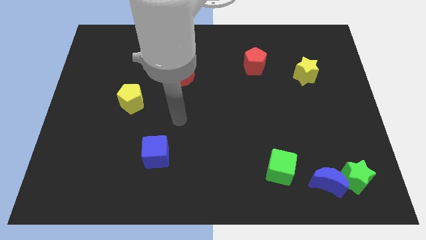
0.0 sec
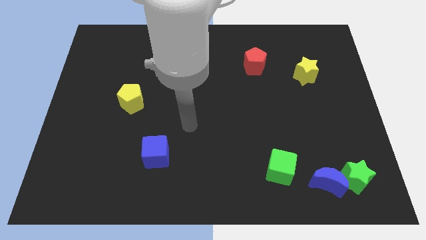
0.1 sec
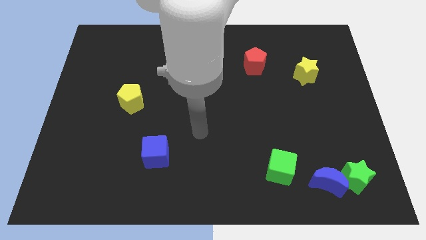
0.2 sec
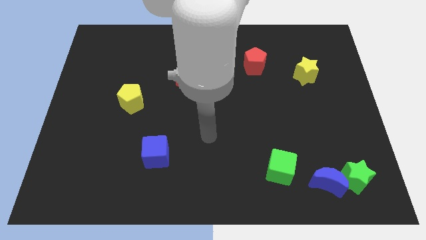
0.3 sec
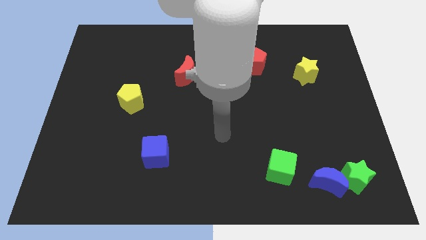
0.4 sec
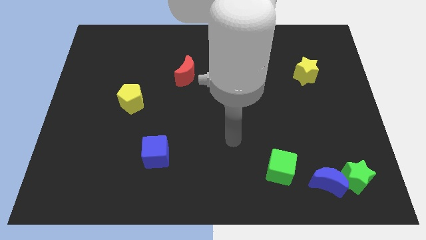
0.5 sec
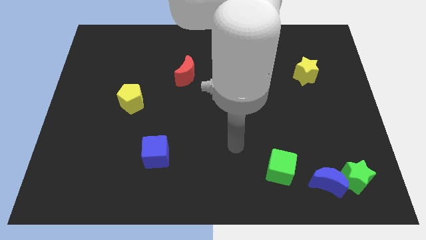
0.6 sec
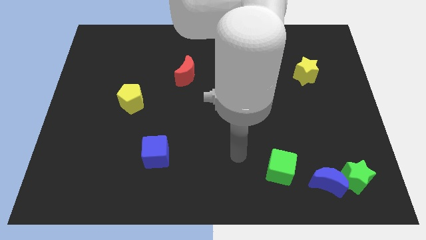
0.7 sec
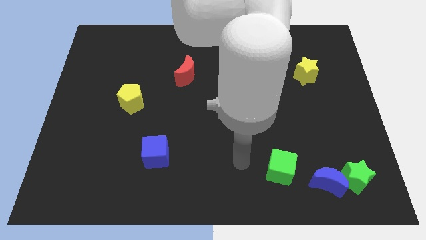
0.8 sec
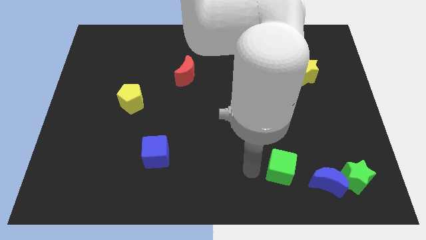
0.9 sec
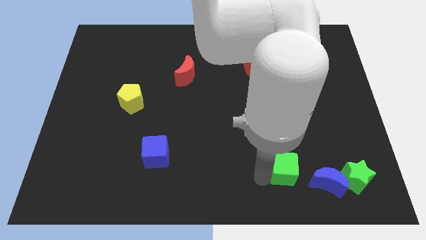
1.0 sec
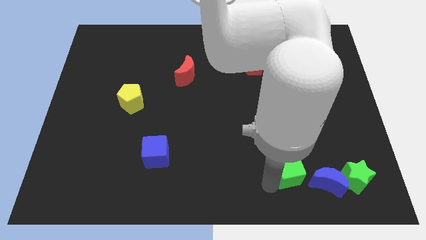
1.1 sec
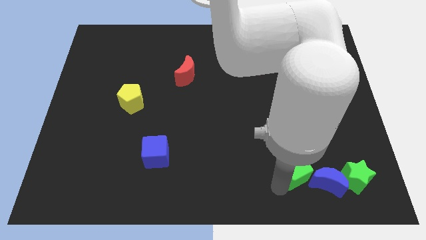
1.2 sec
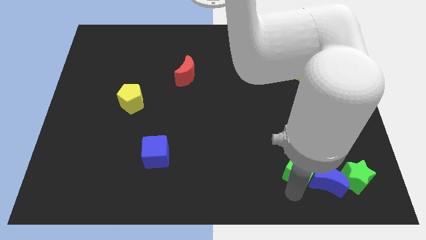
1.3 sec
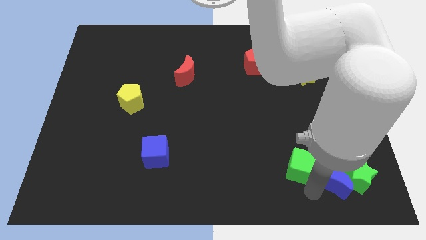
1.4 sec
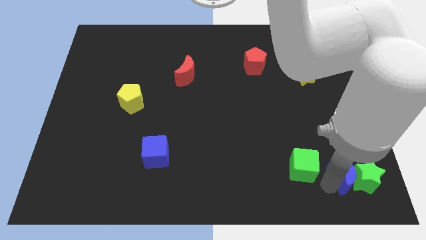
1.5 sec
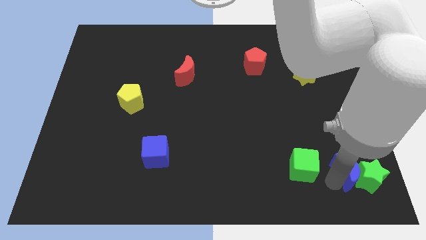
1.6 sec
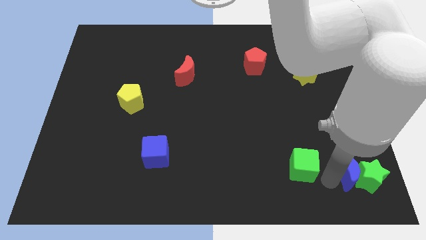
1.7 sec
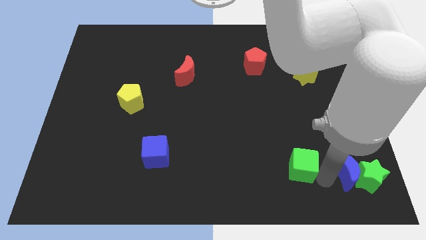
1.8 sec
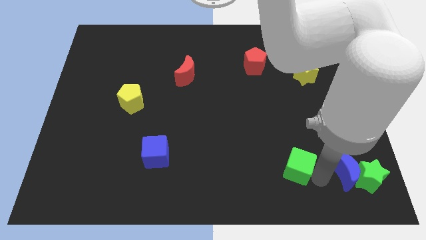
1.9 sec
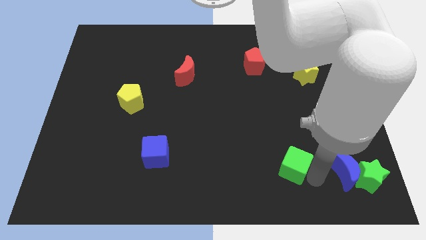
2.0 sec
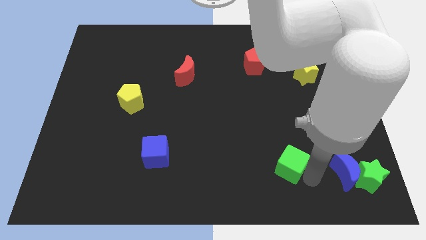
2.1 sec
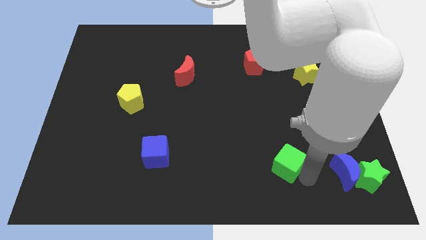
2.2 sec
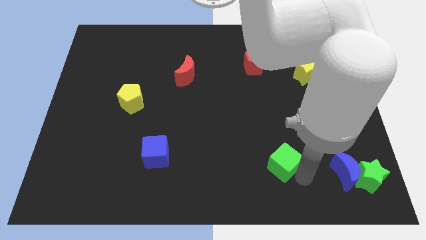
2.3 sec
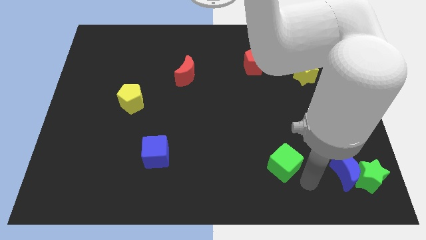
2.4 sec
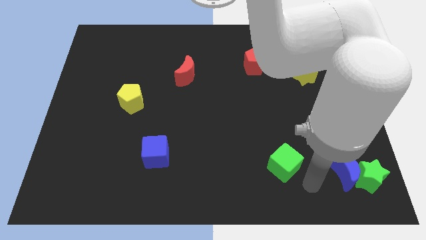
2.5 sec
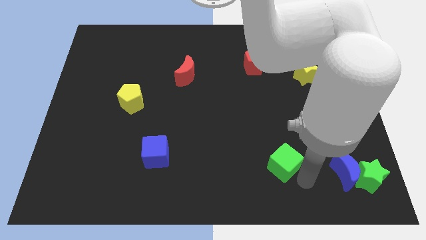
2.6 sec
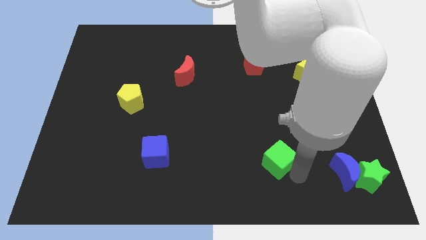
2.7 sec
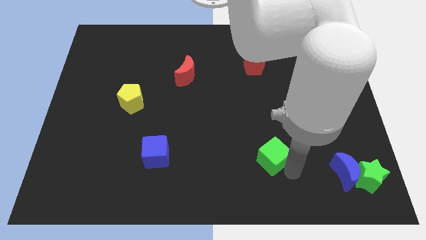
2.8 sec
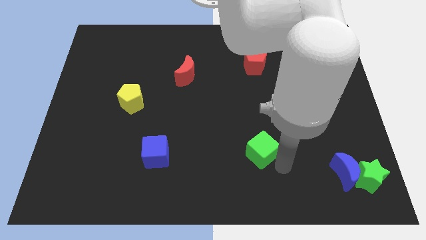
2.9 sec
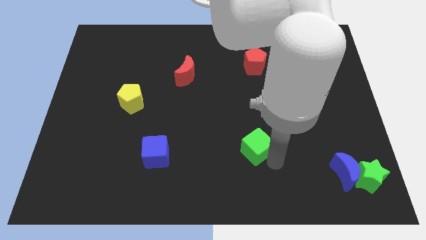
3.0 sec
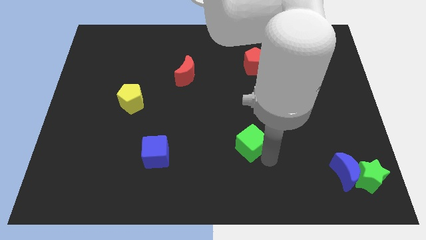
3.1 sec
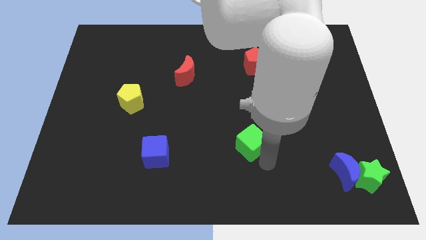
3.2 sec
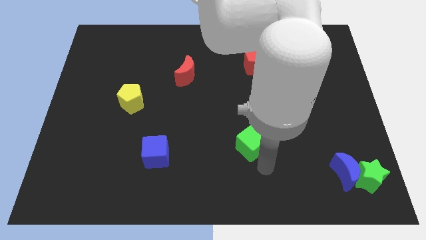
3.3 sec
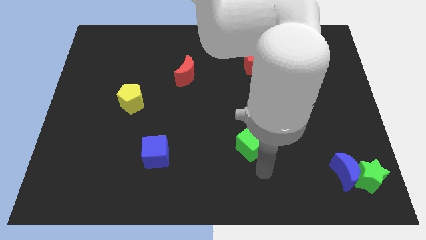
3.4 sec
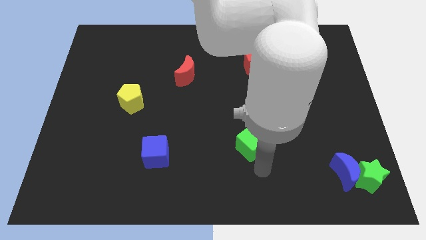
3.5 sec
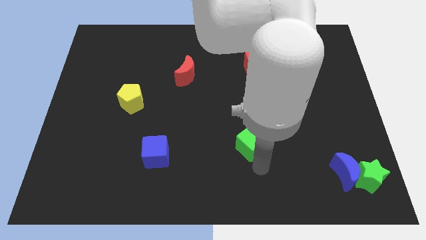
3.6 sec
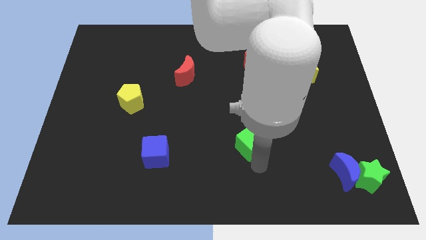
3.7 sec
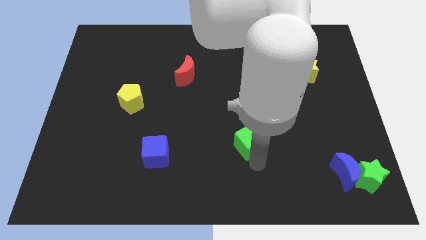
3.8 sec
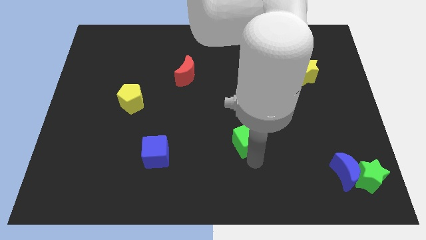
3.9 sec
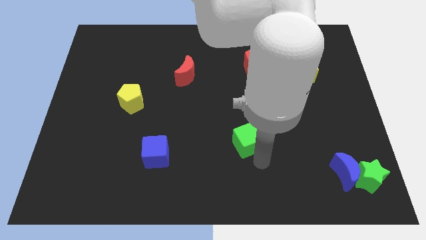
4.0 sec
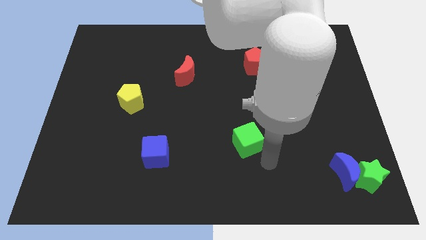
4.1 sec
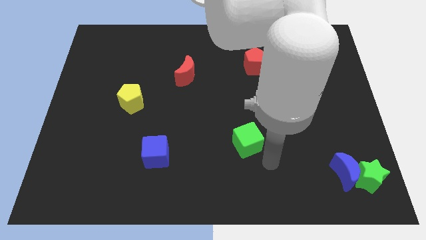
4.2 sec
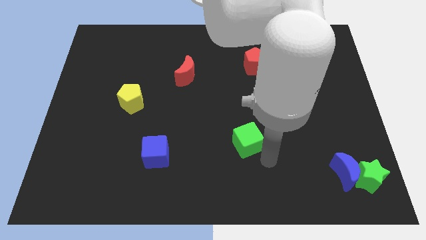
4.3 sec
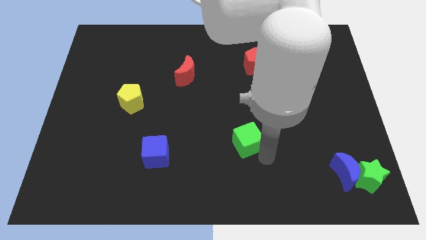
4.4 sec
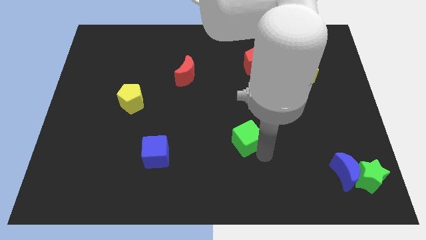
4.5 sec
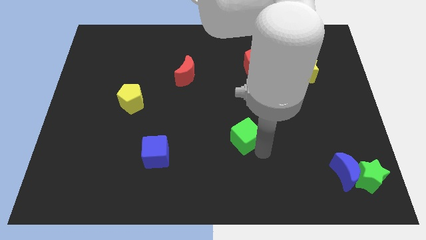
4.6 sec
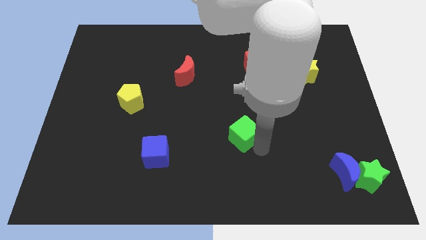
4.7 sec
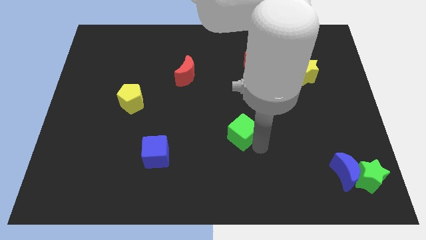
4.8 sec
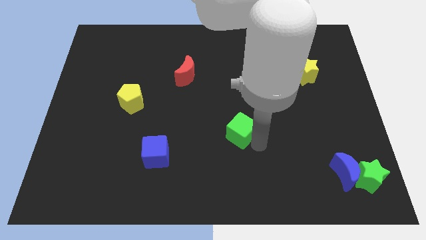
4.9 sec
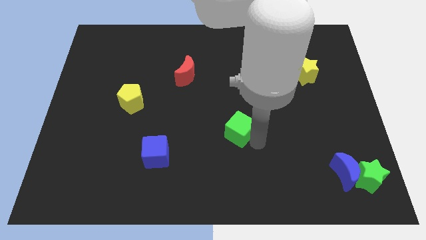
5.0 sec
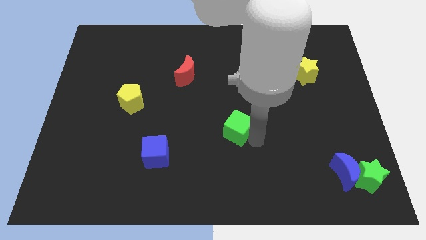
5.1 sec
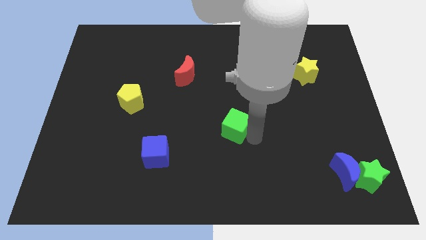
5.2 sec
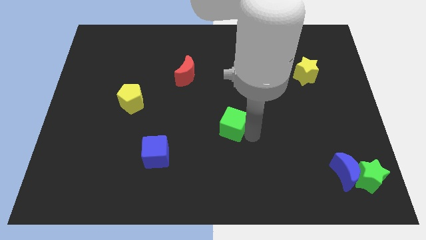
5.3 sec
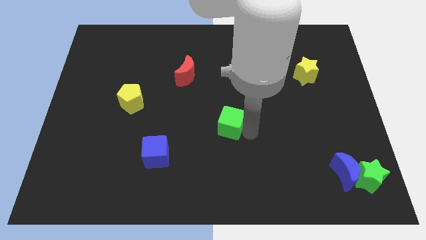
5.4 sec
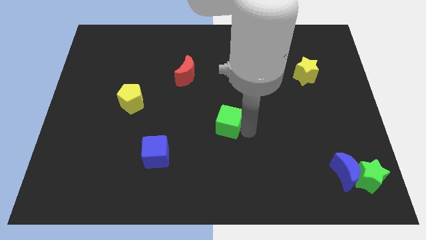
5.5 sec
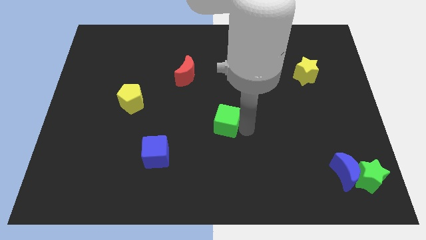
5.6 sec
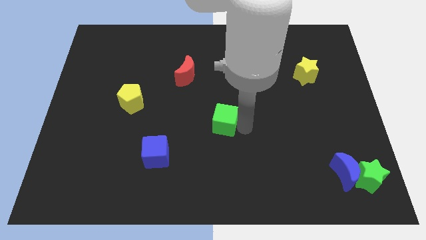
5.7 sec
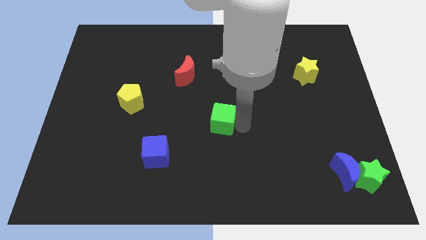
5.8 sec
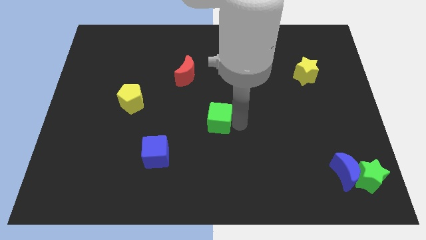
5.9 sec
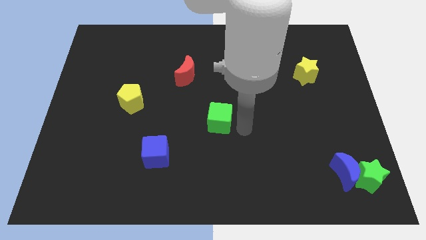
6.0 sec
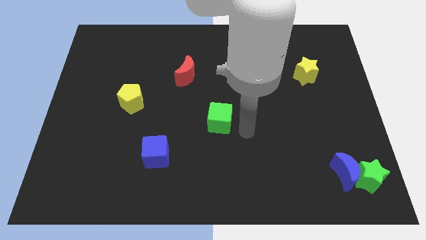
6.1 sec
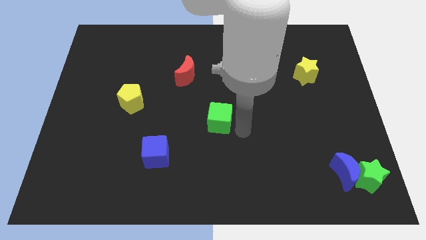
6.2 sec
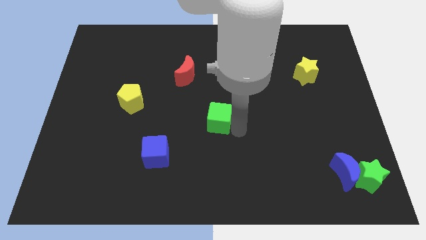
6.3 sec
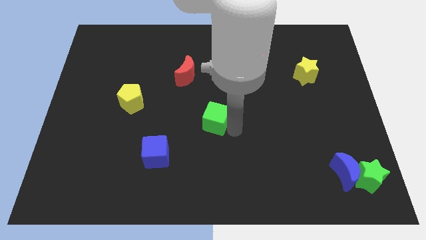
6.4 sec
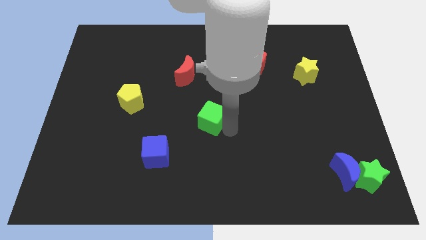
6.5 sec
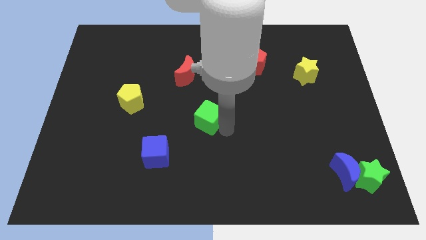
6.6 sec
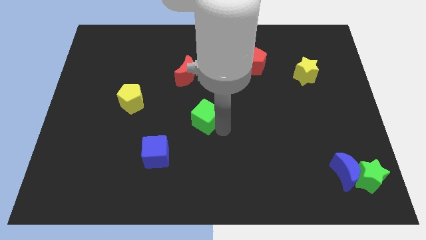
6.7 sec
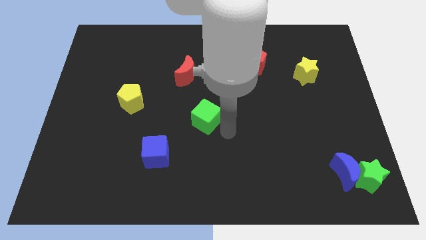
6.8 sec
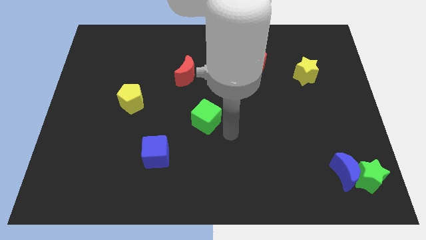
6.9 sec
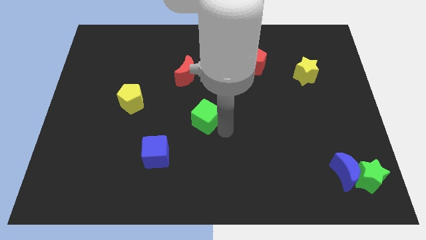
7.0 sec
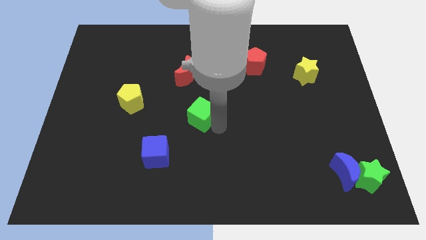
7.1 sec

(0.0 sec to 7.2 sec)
slide the green cube below the red moon
